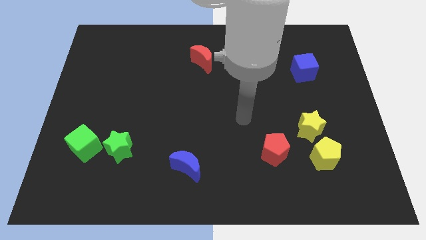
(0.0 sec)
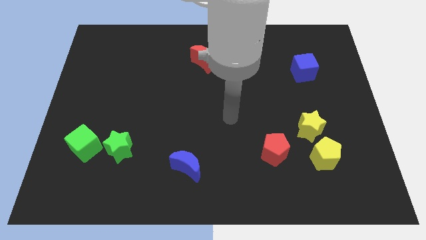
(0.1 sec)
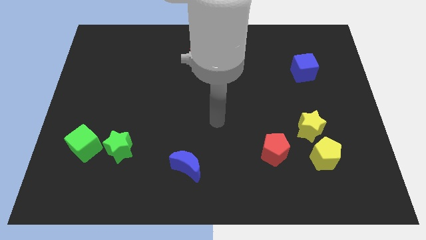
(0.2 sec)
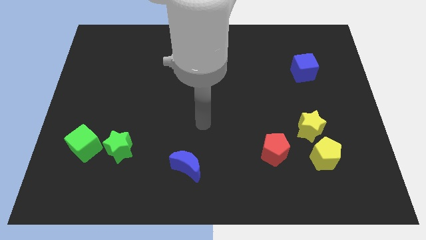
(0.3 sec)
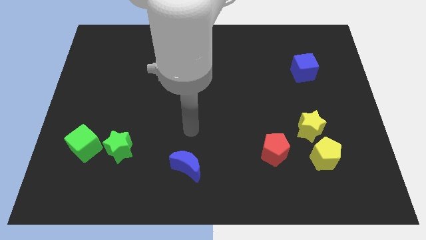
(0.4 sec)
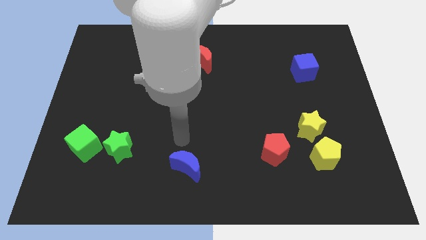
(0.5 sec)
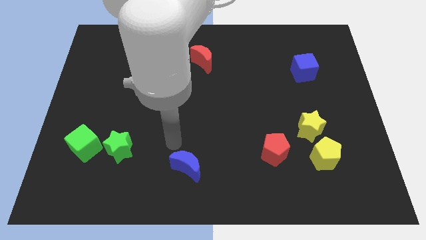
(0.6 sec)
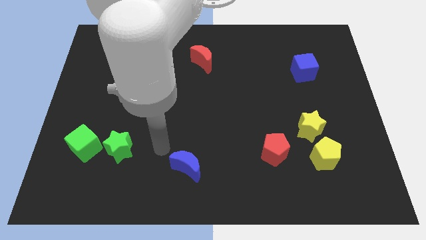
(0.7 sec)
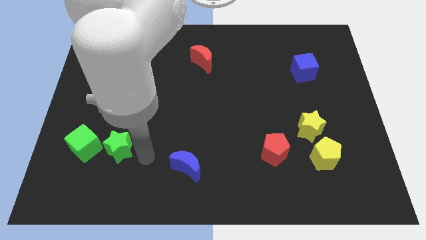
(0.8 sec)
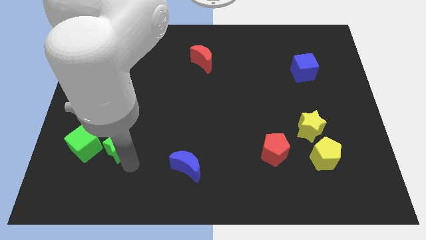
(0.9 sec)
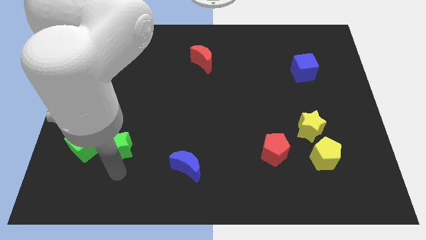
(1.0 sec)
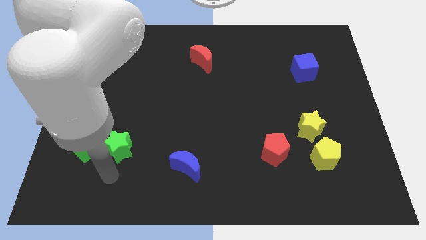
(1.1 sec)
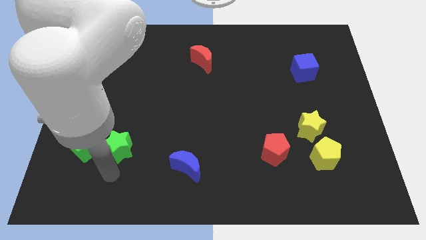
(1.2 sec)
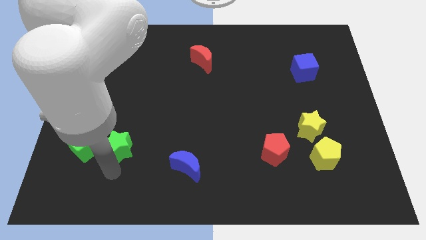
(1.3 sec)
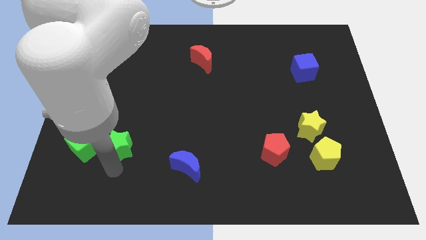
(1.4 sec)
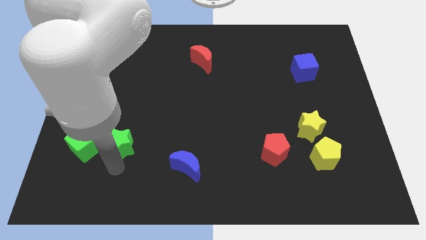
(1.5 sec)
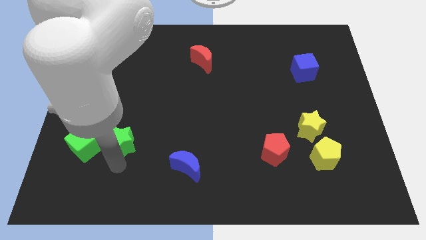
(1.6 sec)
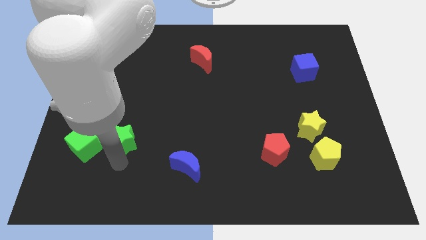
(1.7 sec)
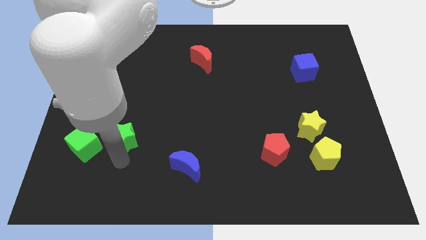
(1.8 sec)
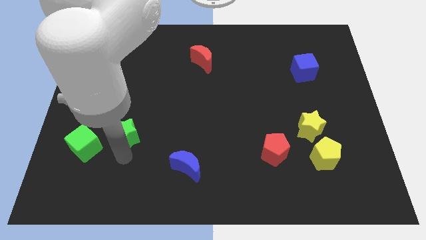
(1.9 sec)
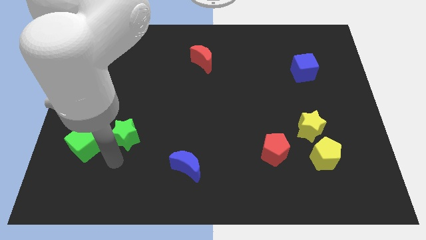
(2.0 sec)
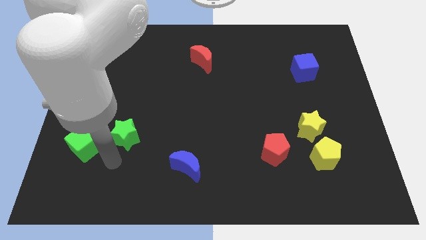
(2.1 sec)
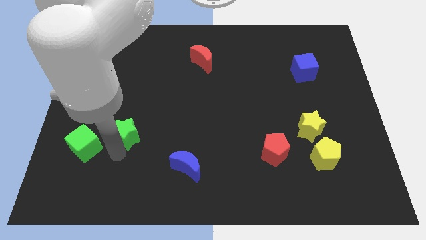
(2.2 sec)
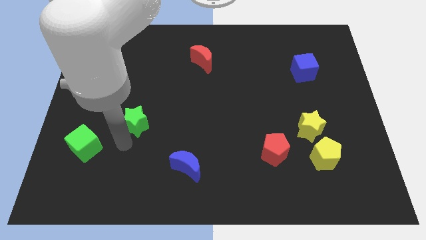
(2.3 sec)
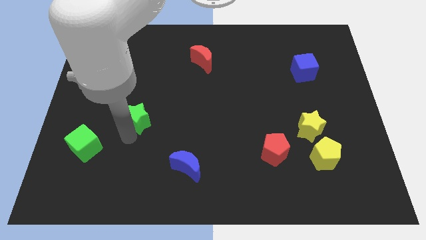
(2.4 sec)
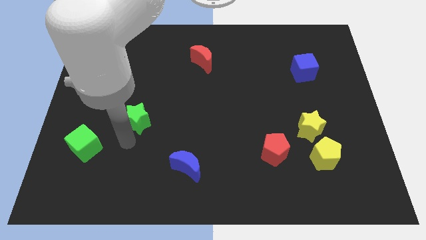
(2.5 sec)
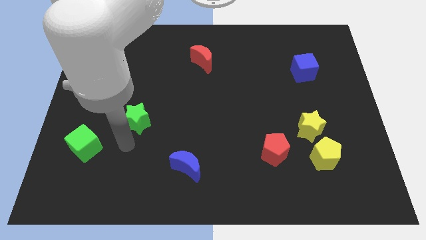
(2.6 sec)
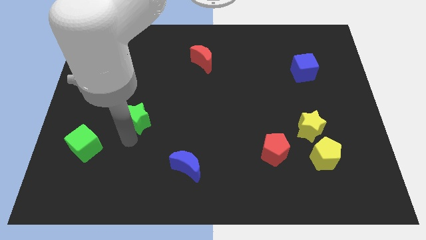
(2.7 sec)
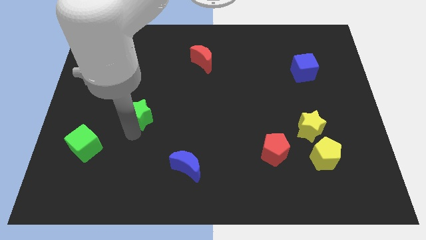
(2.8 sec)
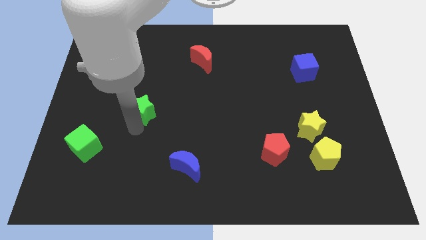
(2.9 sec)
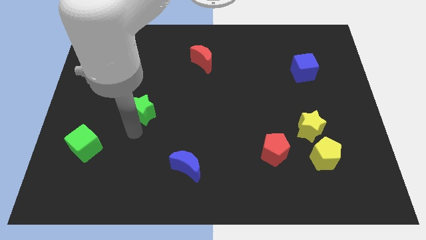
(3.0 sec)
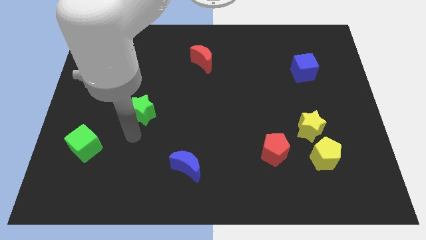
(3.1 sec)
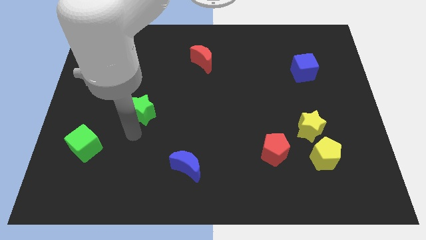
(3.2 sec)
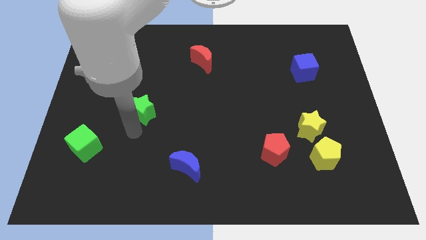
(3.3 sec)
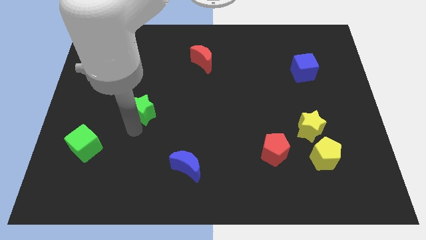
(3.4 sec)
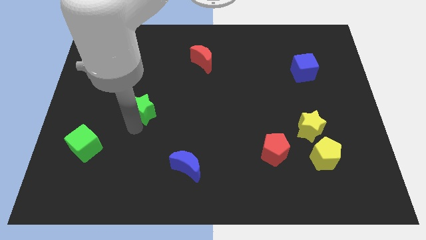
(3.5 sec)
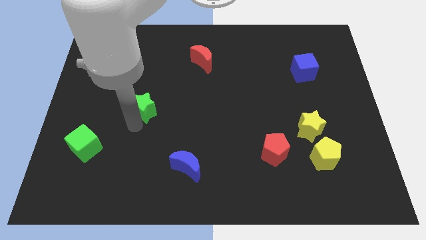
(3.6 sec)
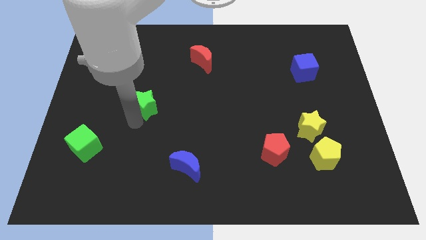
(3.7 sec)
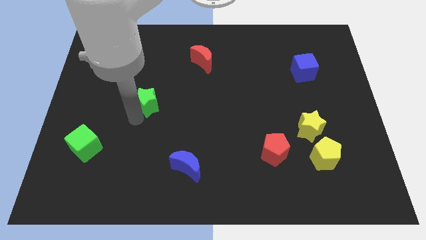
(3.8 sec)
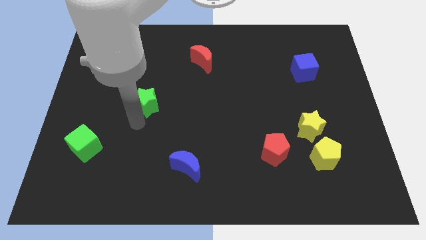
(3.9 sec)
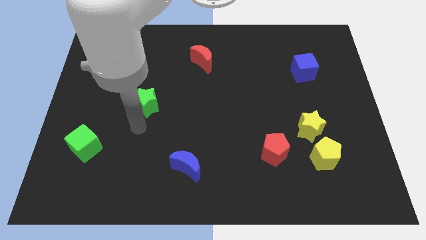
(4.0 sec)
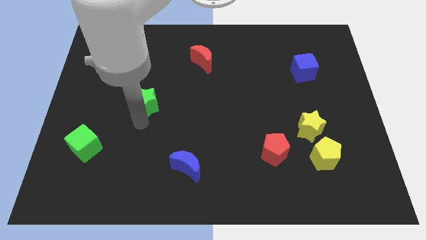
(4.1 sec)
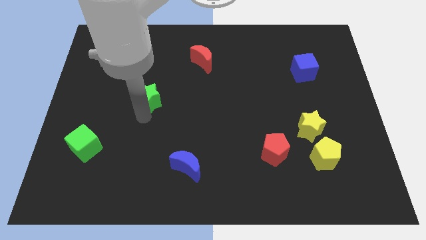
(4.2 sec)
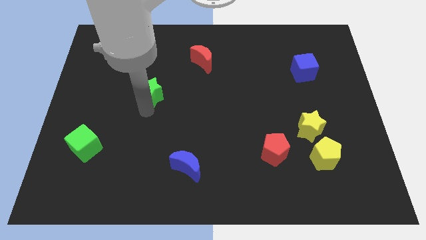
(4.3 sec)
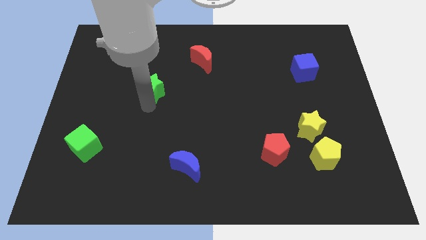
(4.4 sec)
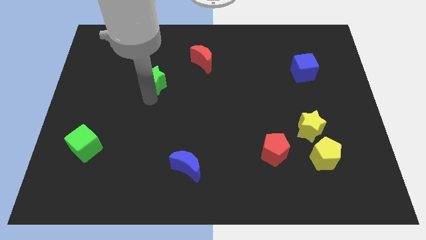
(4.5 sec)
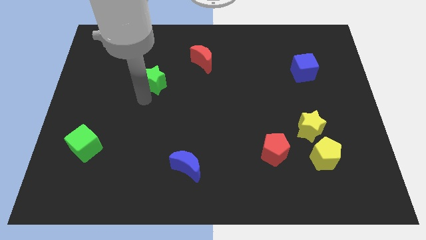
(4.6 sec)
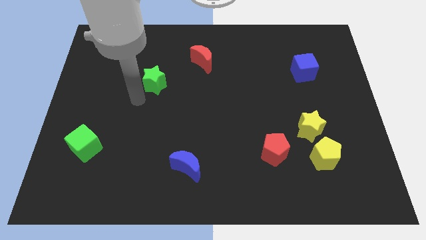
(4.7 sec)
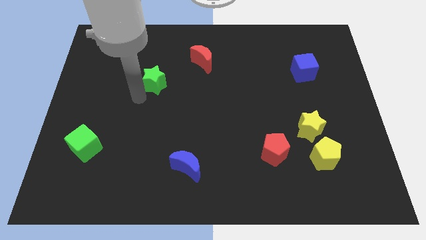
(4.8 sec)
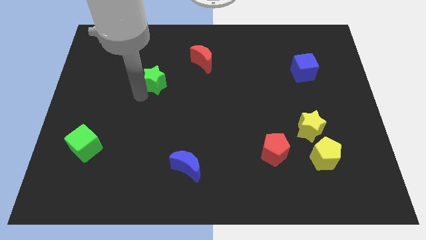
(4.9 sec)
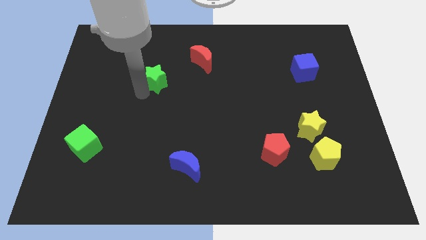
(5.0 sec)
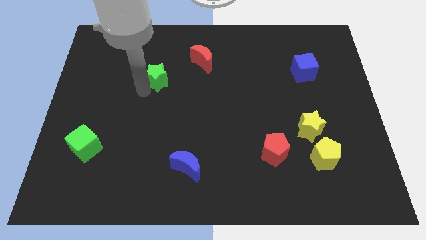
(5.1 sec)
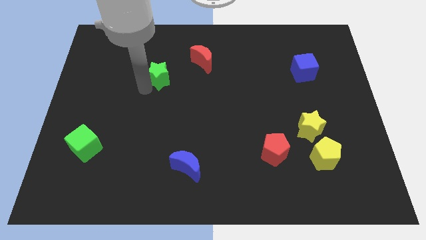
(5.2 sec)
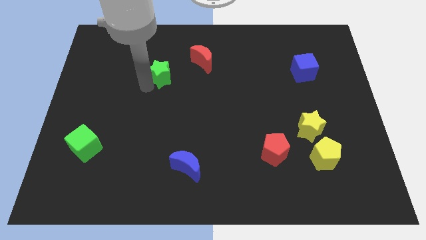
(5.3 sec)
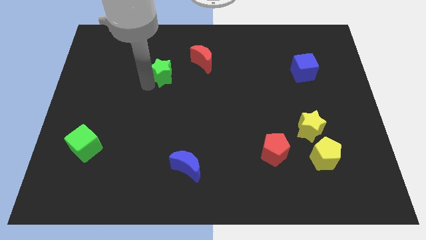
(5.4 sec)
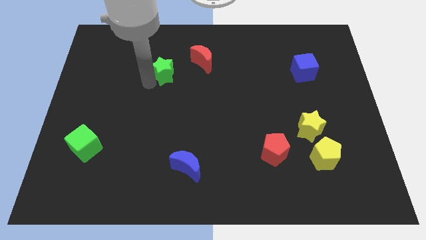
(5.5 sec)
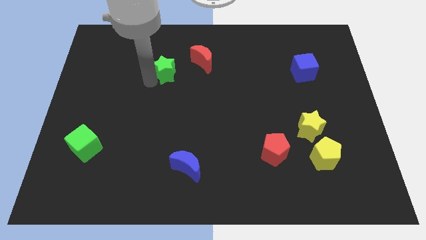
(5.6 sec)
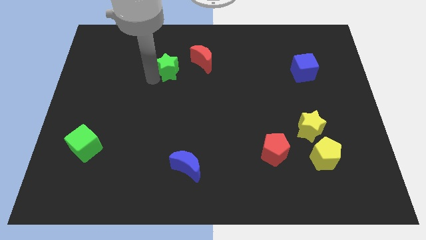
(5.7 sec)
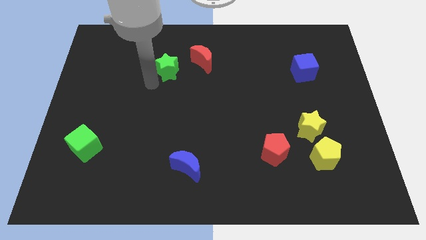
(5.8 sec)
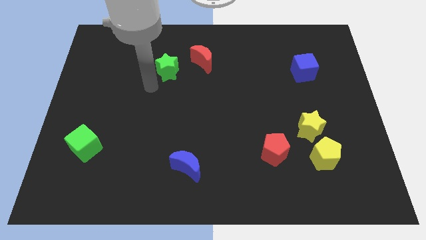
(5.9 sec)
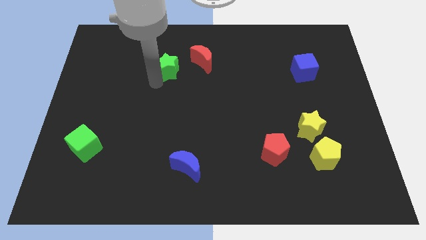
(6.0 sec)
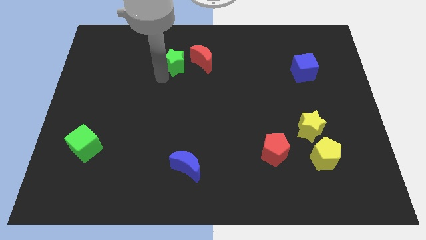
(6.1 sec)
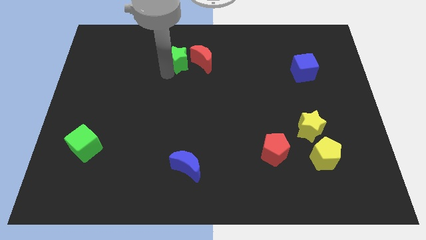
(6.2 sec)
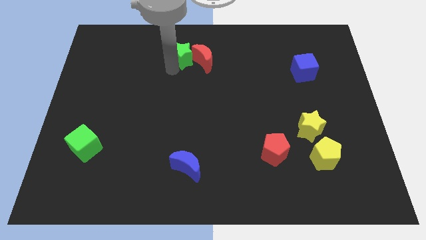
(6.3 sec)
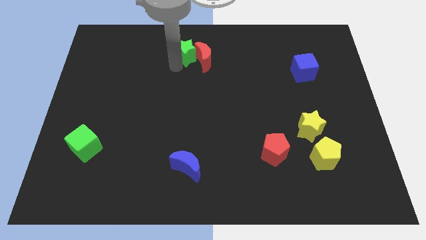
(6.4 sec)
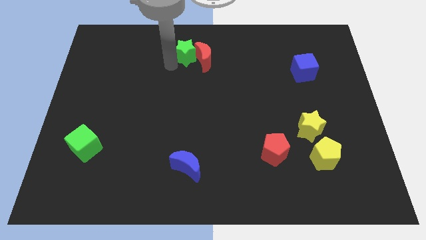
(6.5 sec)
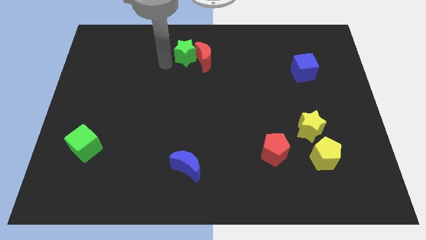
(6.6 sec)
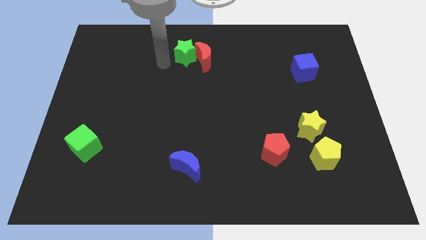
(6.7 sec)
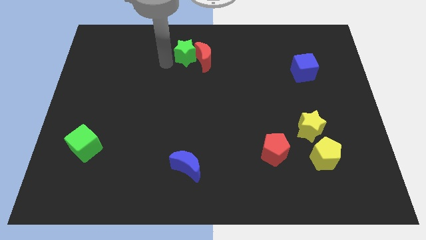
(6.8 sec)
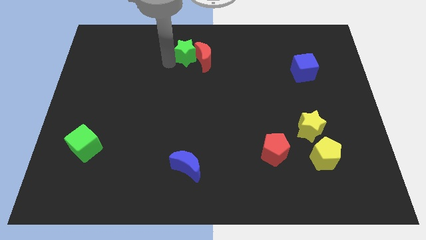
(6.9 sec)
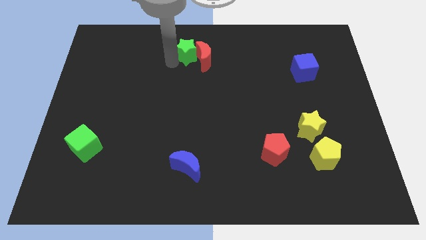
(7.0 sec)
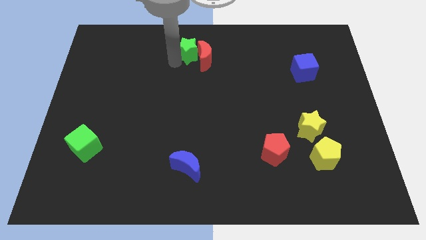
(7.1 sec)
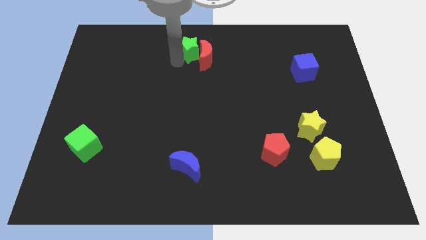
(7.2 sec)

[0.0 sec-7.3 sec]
slide the green star to the top side
